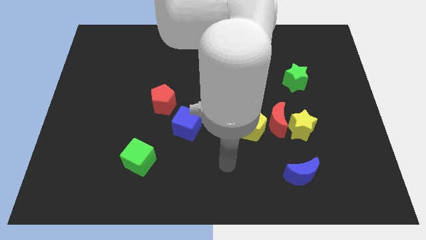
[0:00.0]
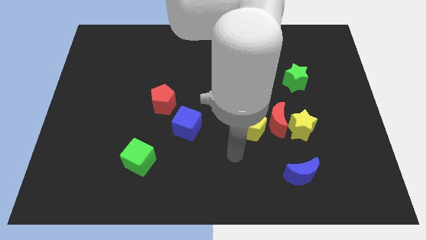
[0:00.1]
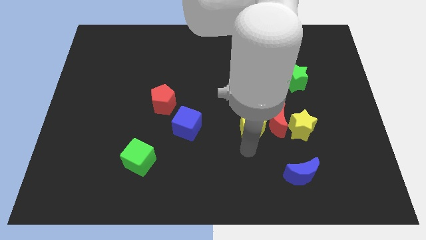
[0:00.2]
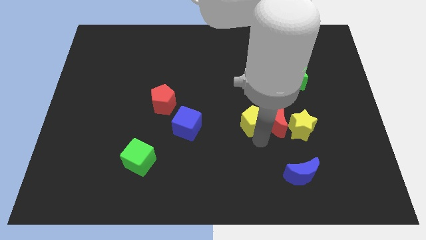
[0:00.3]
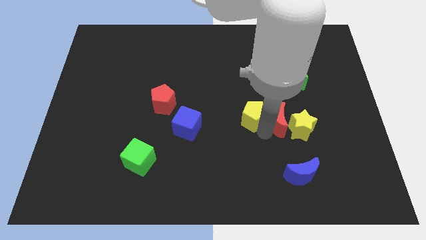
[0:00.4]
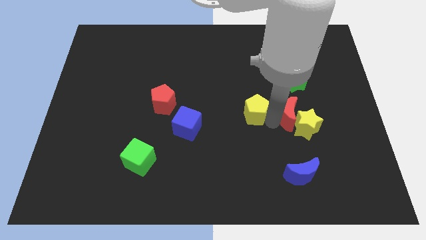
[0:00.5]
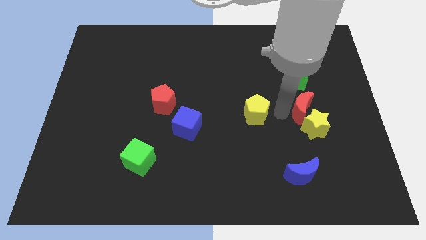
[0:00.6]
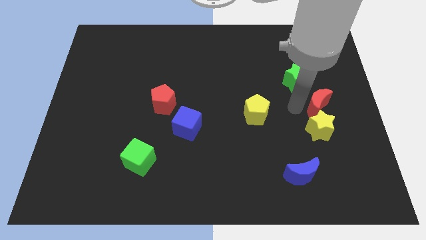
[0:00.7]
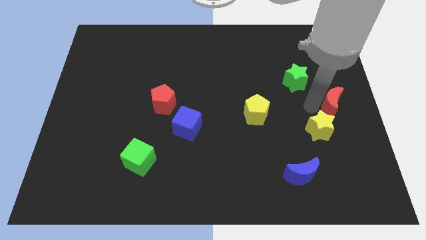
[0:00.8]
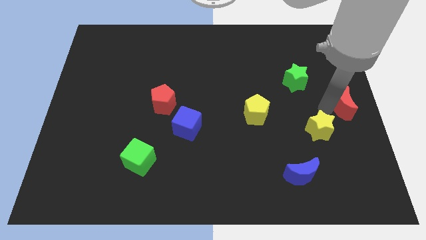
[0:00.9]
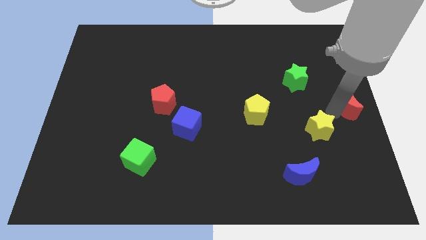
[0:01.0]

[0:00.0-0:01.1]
move the yellow star away from the red moon

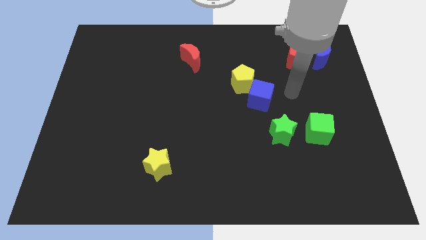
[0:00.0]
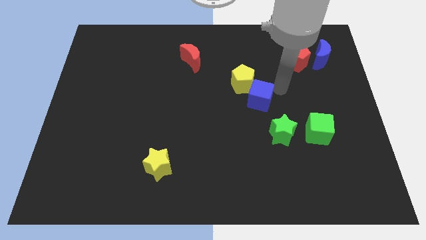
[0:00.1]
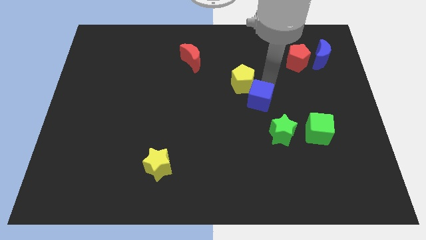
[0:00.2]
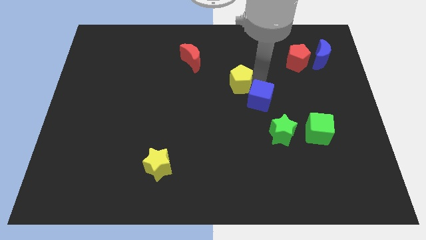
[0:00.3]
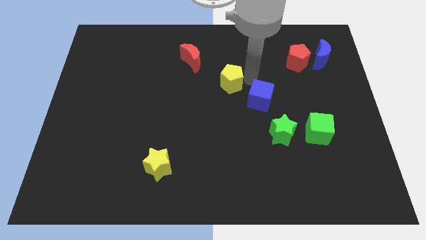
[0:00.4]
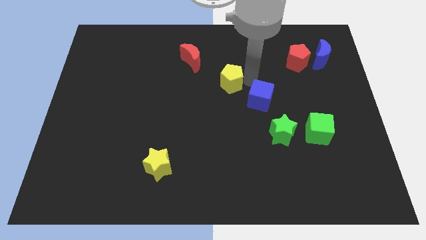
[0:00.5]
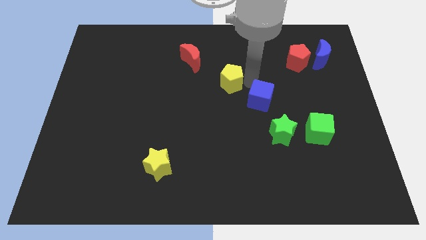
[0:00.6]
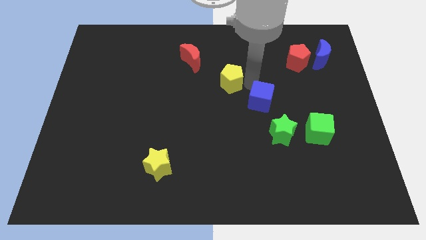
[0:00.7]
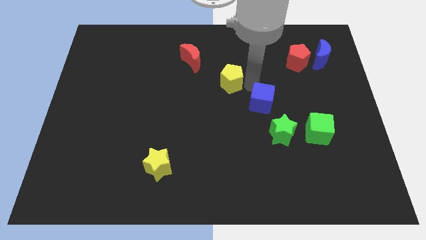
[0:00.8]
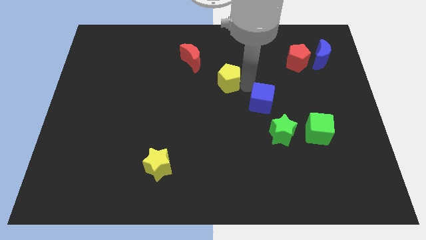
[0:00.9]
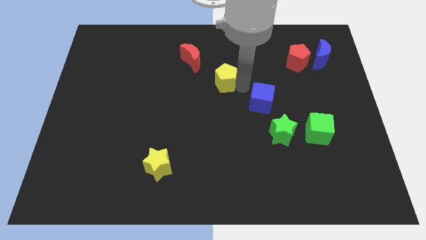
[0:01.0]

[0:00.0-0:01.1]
separate the blue cube from the yellow pentagon

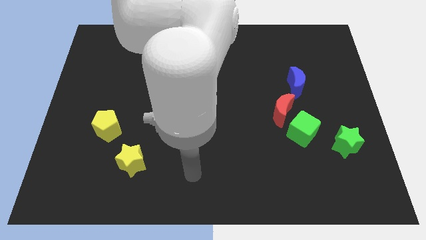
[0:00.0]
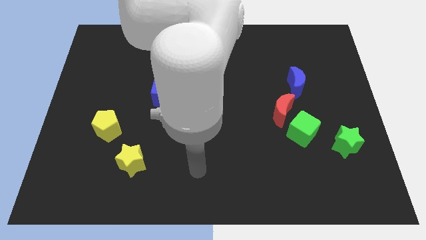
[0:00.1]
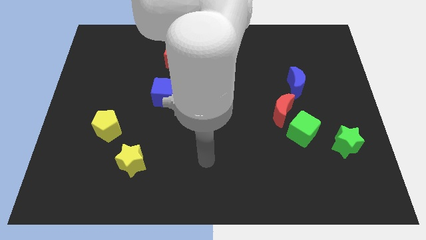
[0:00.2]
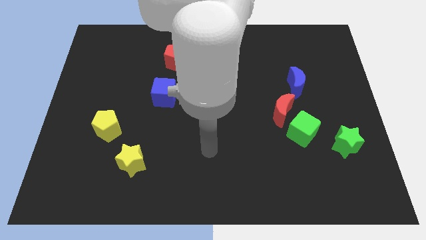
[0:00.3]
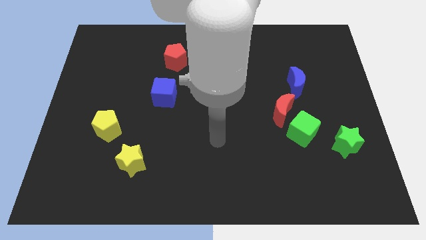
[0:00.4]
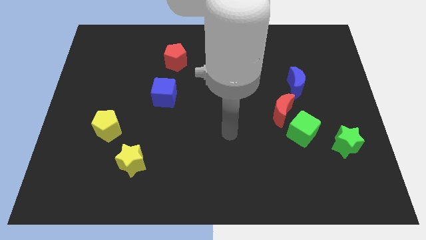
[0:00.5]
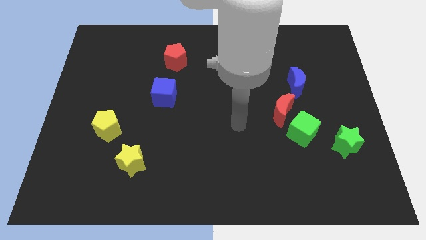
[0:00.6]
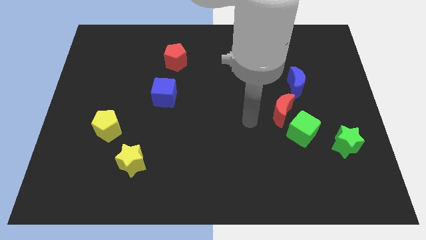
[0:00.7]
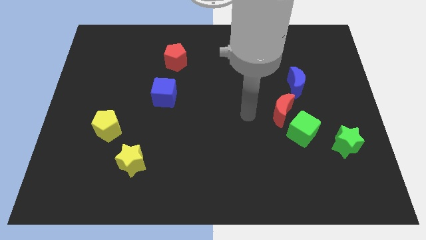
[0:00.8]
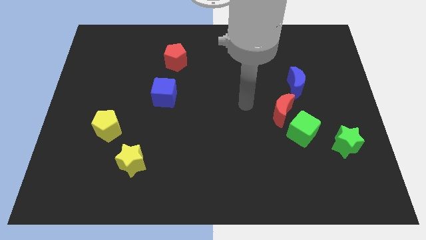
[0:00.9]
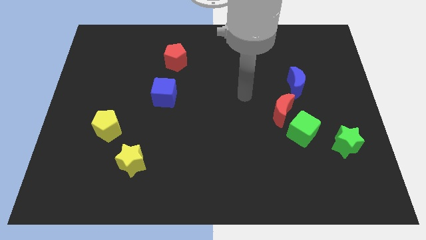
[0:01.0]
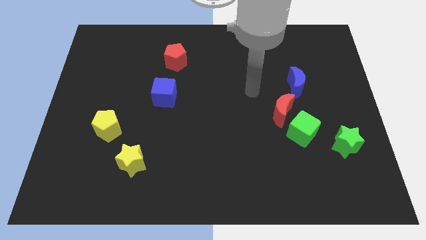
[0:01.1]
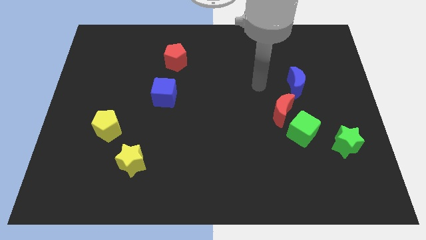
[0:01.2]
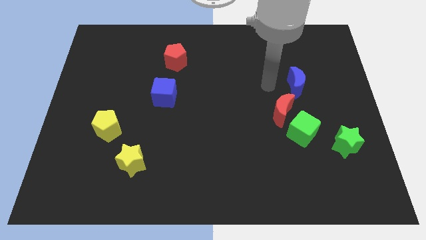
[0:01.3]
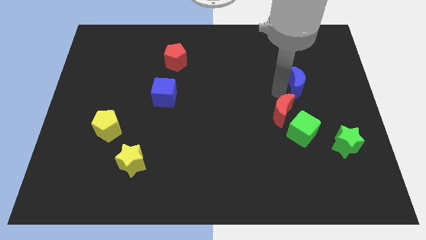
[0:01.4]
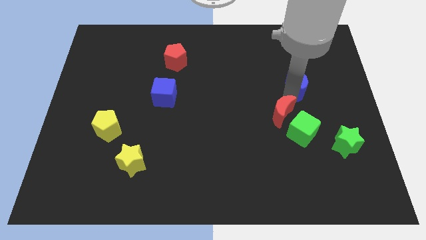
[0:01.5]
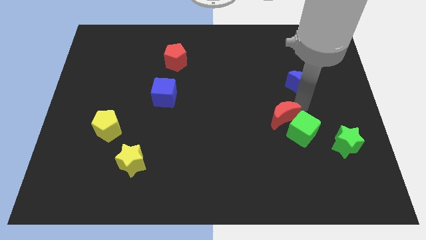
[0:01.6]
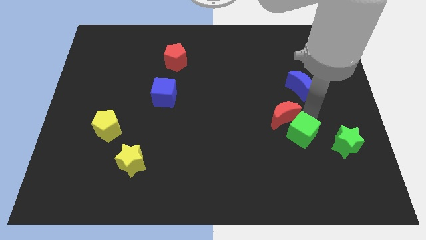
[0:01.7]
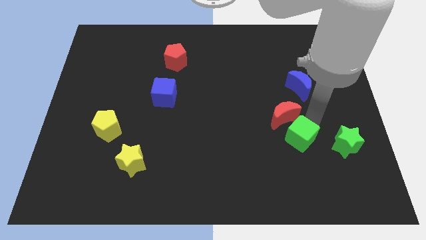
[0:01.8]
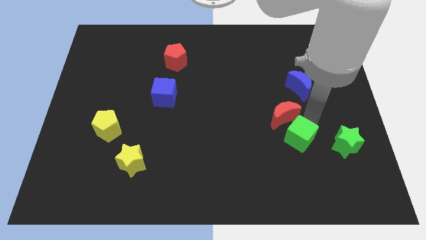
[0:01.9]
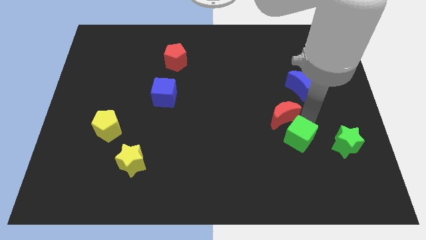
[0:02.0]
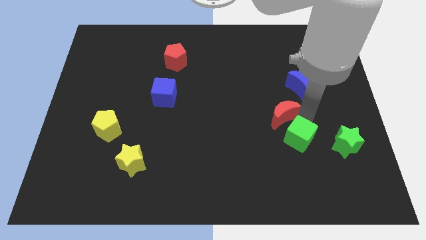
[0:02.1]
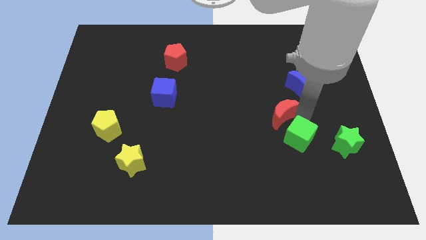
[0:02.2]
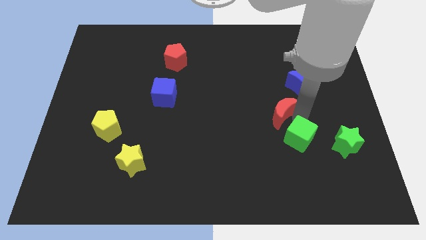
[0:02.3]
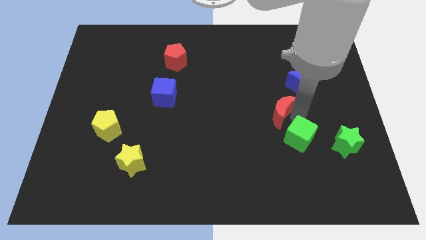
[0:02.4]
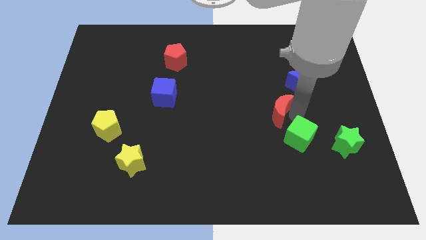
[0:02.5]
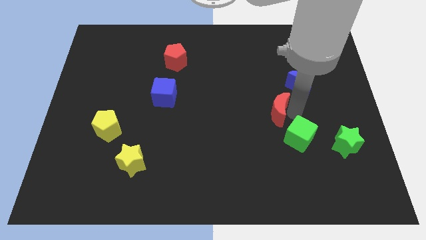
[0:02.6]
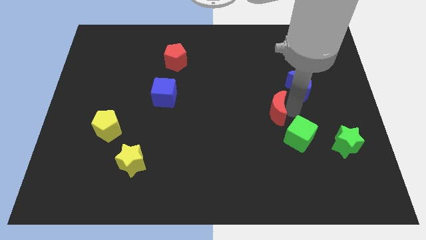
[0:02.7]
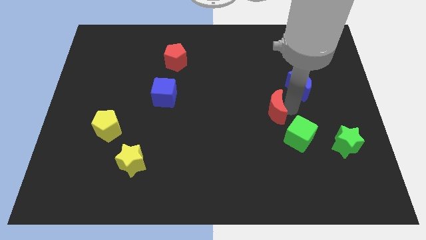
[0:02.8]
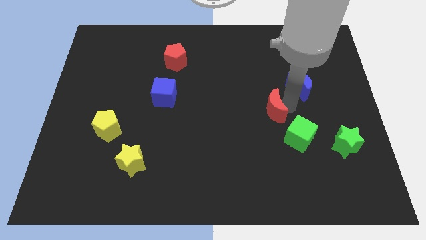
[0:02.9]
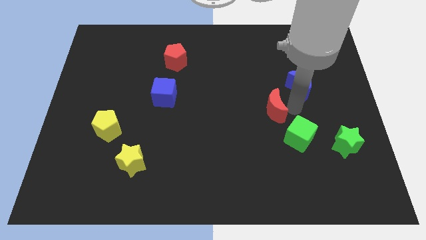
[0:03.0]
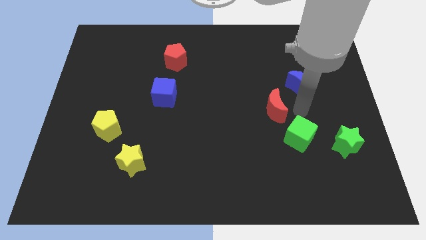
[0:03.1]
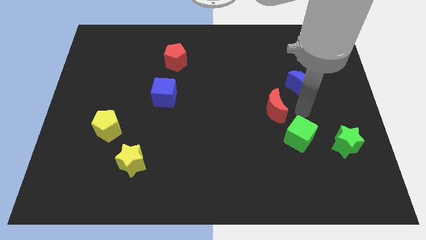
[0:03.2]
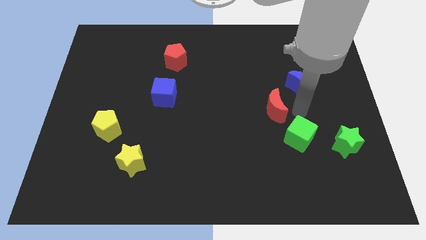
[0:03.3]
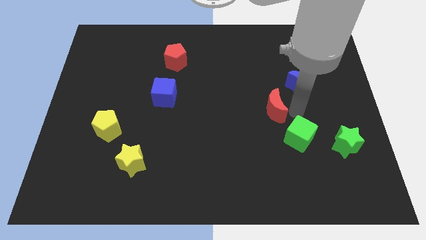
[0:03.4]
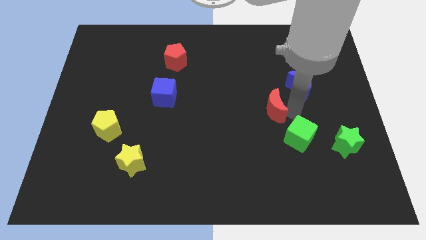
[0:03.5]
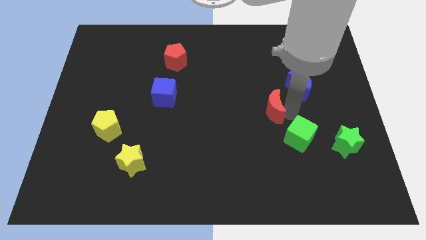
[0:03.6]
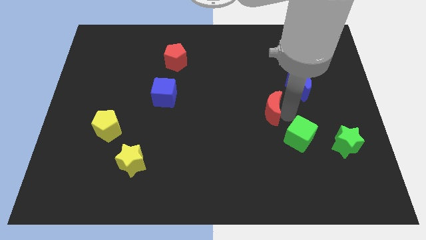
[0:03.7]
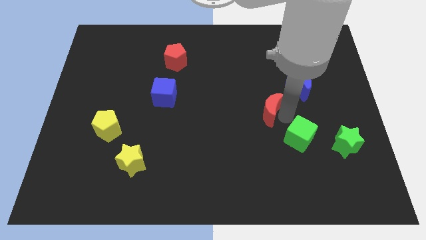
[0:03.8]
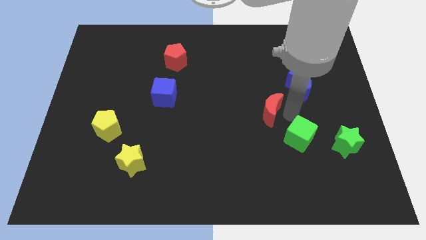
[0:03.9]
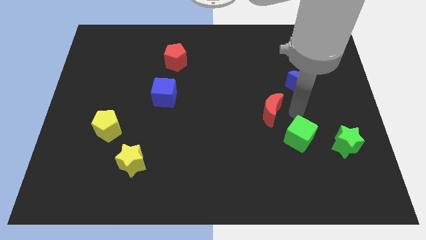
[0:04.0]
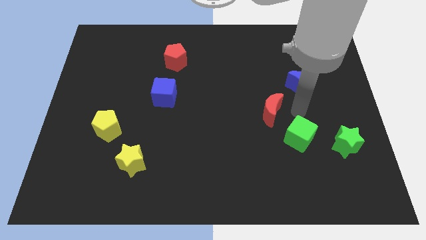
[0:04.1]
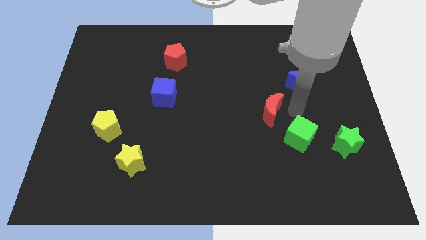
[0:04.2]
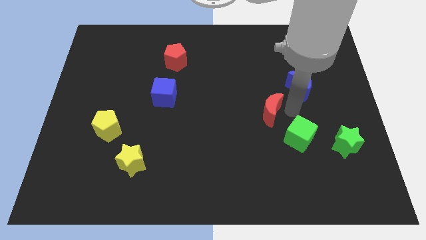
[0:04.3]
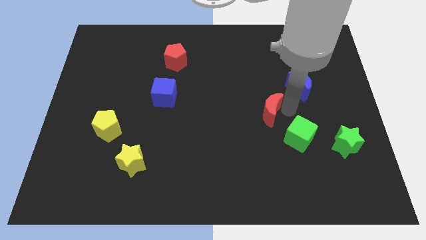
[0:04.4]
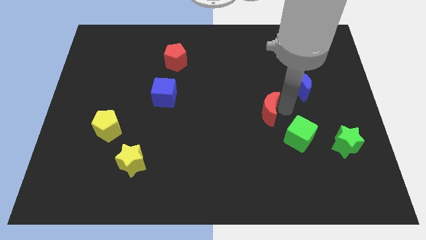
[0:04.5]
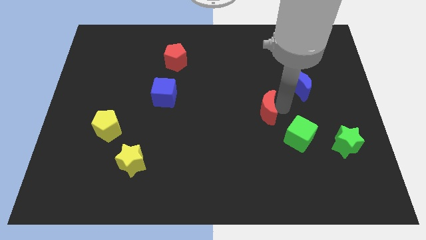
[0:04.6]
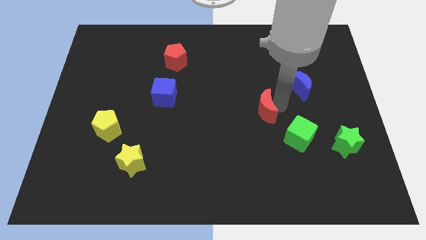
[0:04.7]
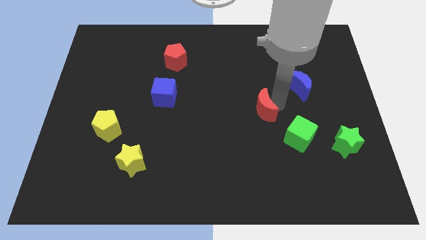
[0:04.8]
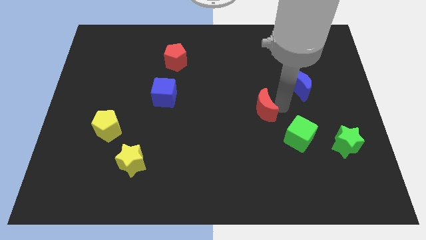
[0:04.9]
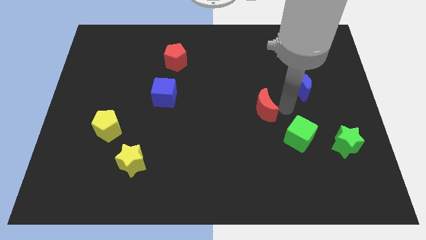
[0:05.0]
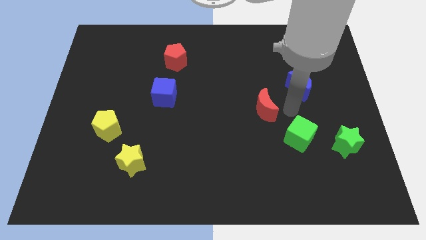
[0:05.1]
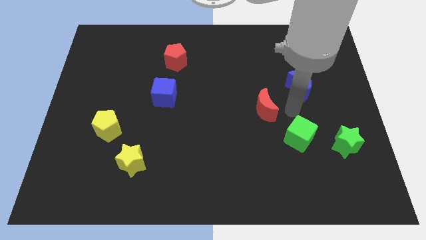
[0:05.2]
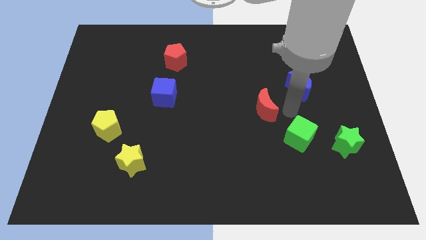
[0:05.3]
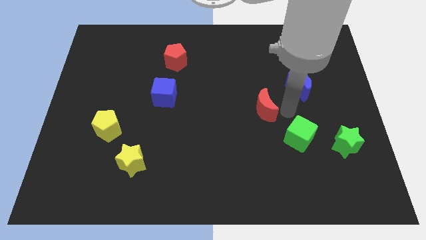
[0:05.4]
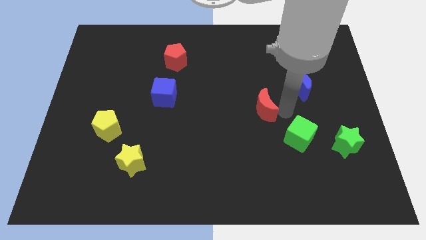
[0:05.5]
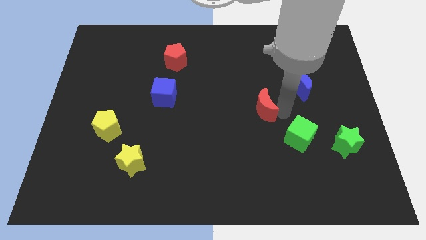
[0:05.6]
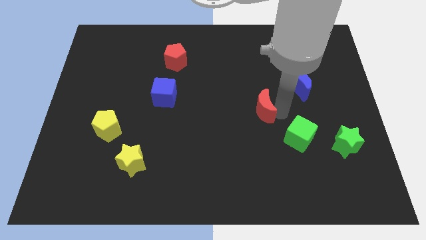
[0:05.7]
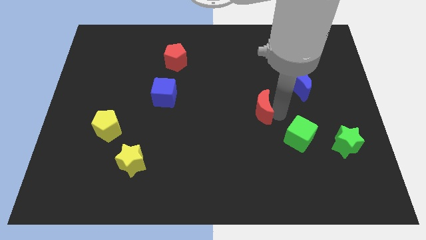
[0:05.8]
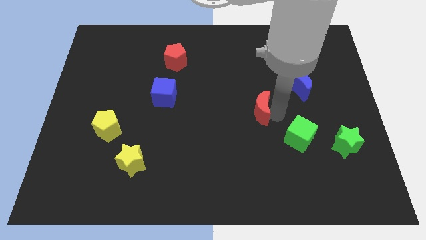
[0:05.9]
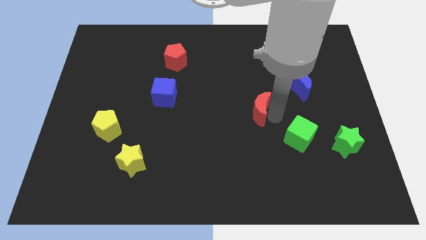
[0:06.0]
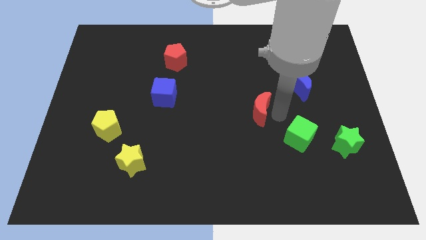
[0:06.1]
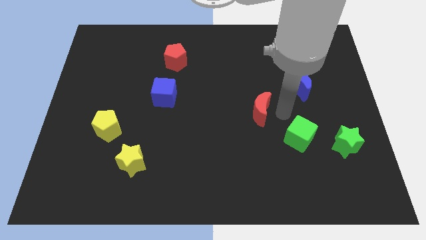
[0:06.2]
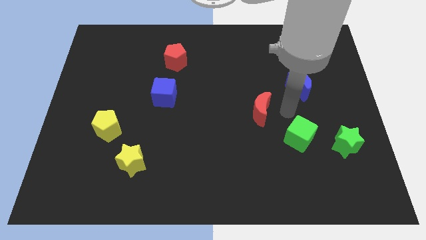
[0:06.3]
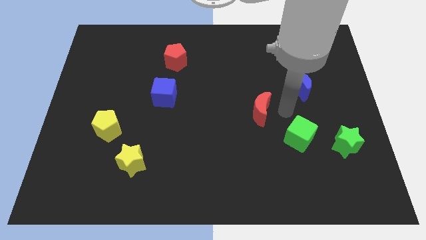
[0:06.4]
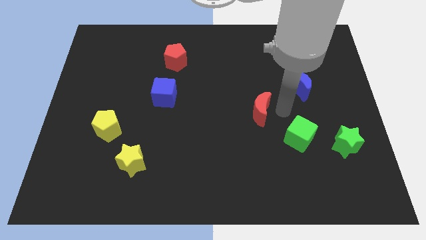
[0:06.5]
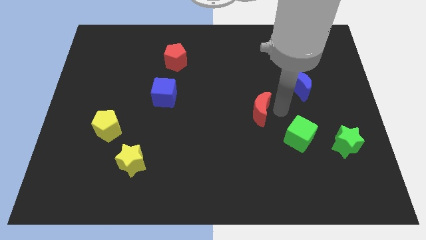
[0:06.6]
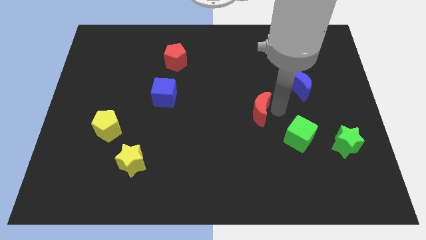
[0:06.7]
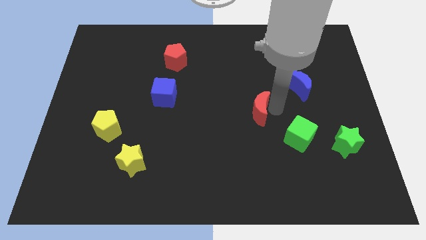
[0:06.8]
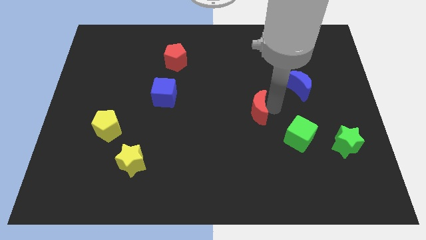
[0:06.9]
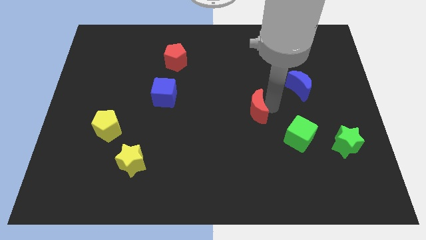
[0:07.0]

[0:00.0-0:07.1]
separate the red moon from the green cube and blue moon

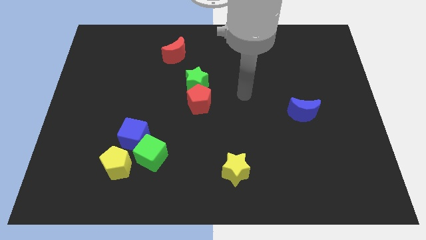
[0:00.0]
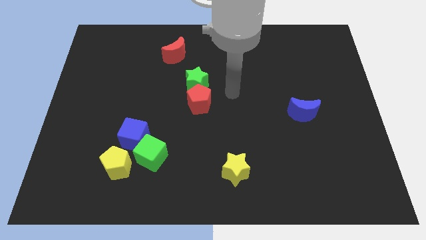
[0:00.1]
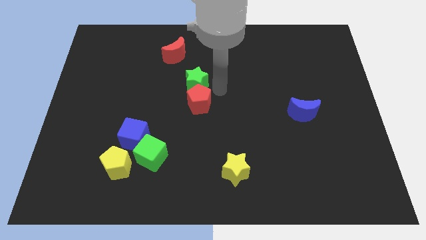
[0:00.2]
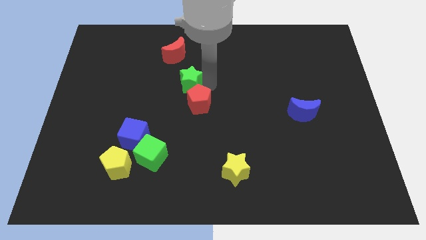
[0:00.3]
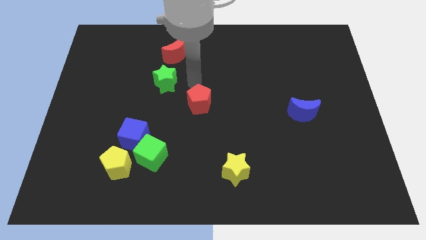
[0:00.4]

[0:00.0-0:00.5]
pull the red pentagon apart from the green star
